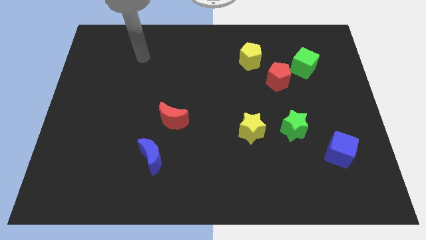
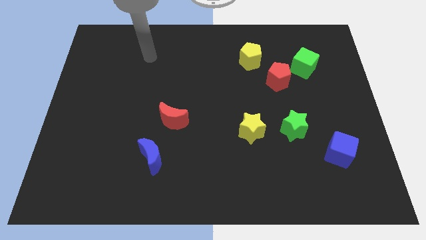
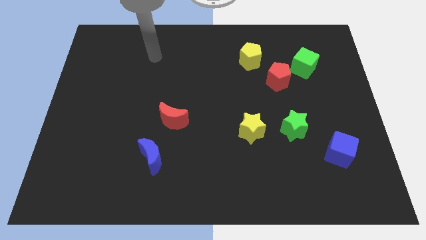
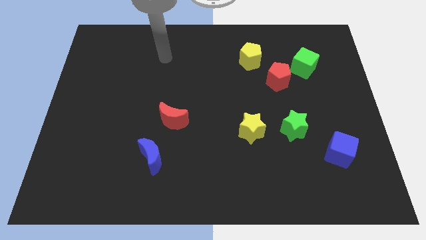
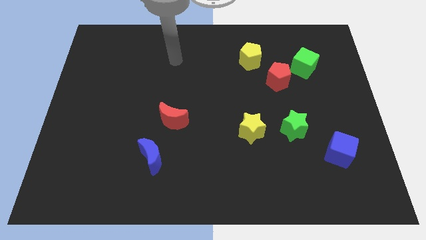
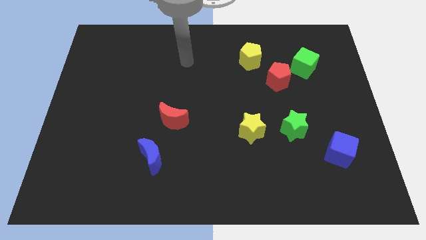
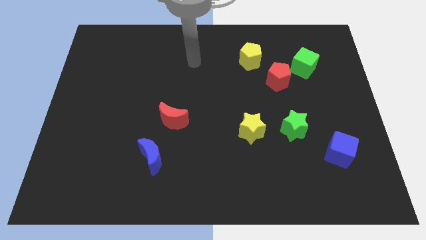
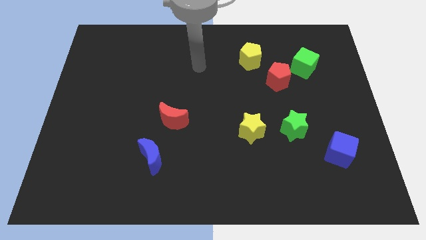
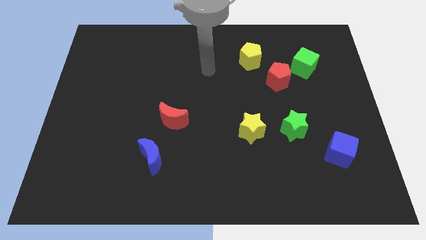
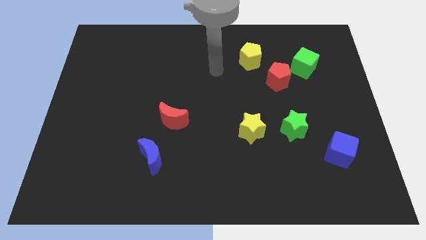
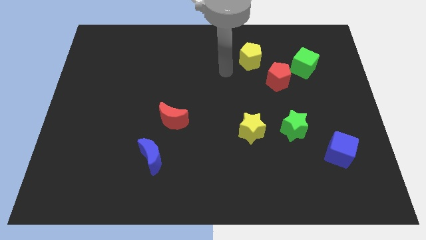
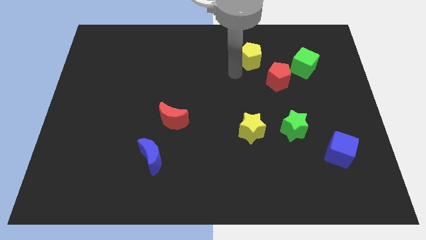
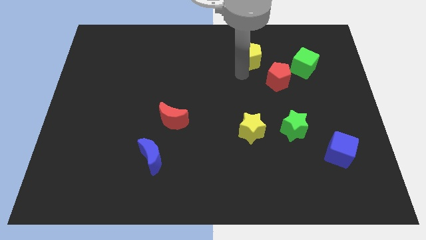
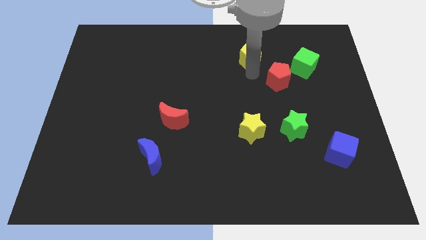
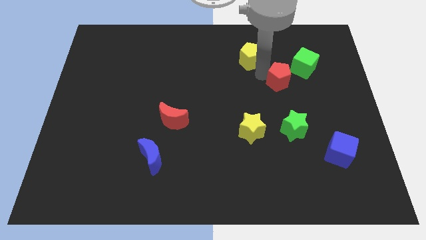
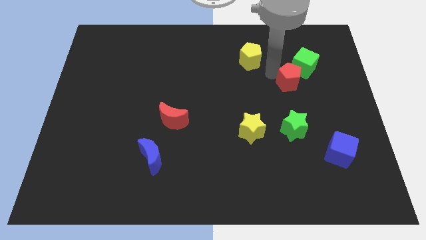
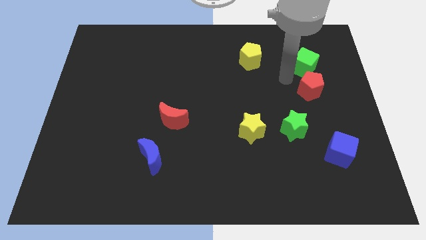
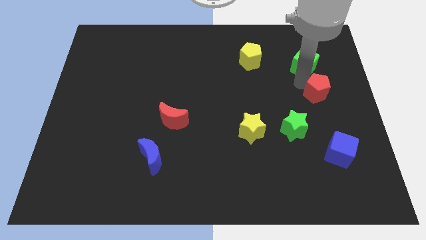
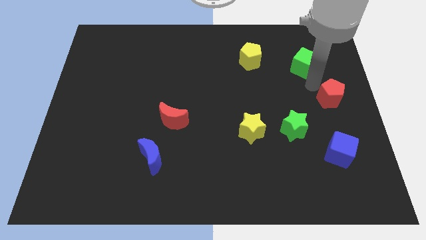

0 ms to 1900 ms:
move the green cube away from the red pentagon

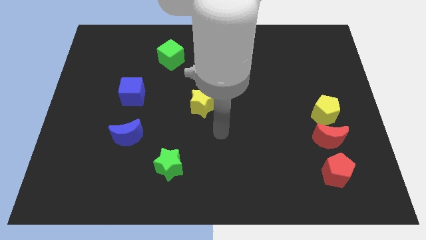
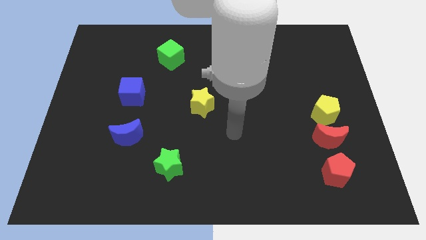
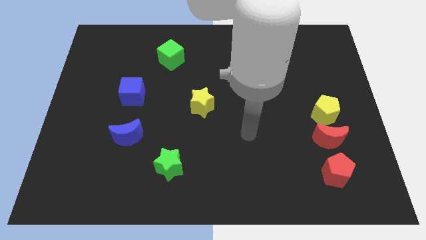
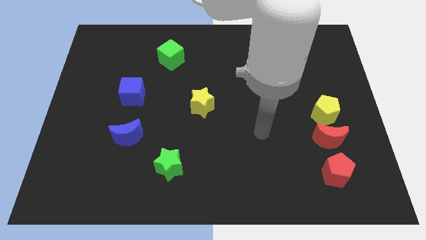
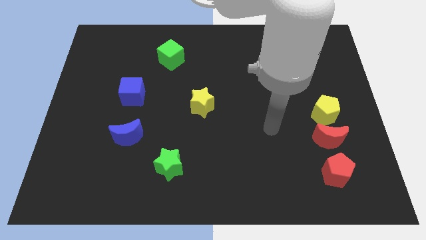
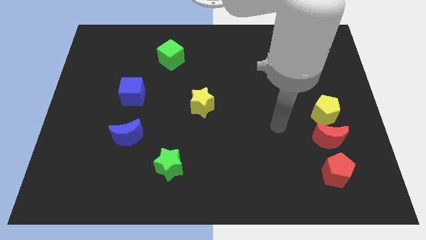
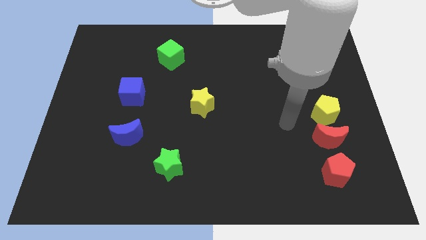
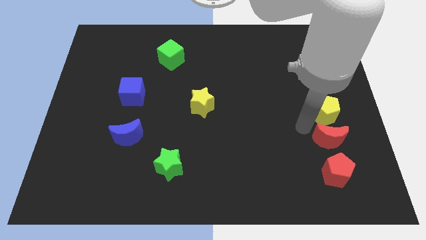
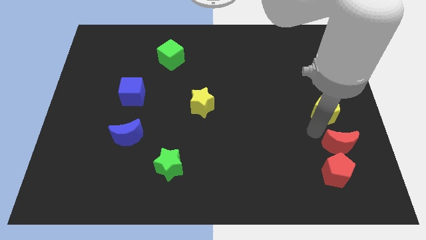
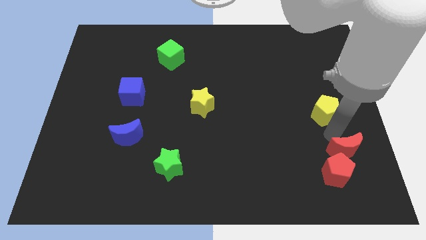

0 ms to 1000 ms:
move the yellow pentagon away from the red moon

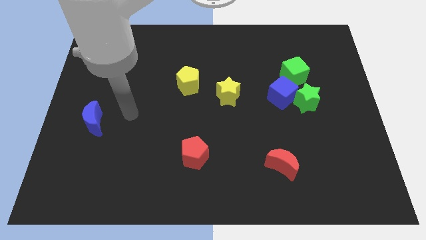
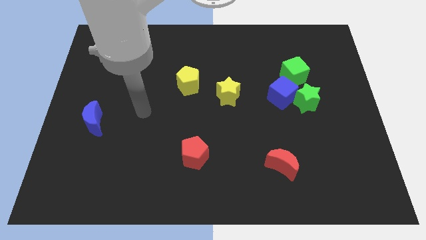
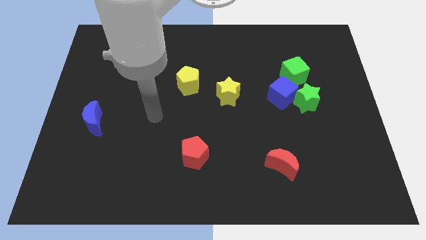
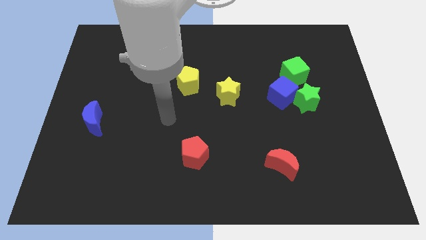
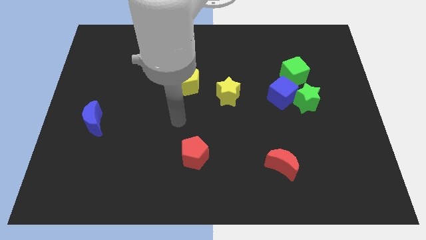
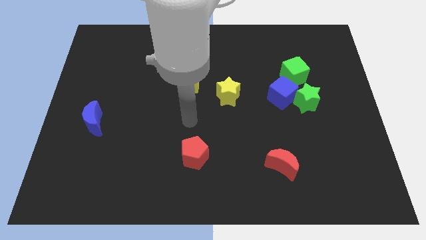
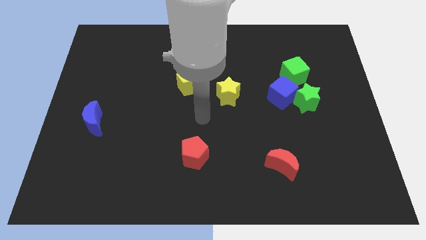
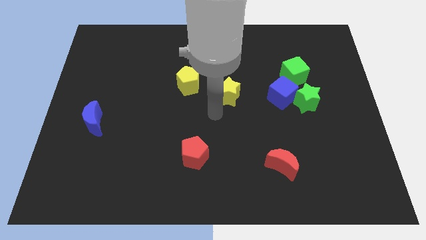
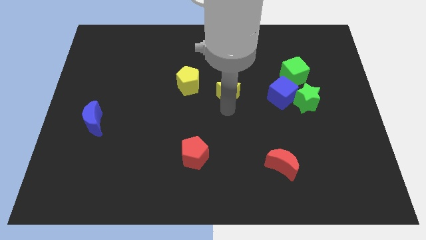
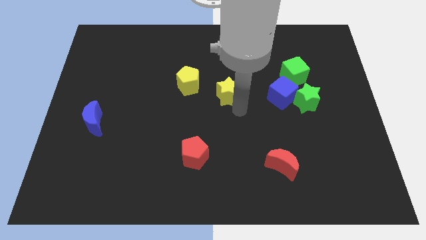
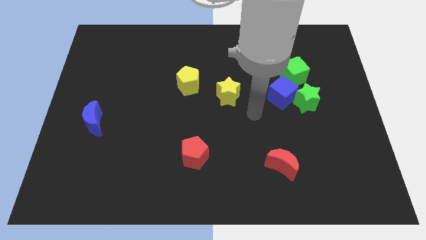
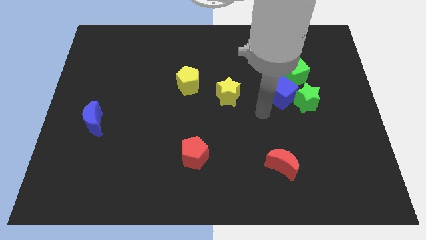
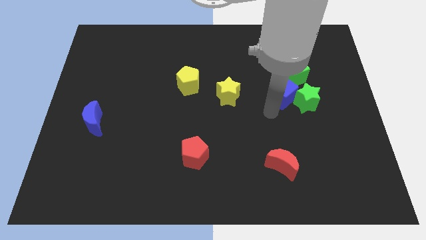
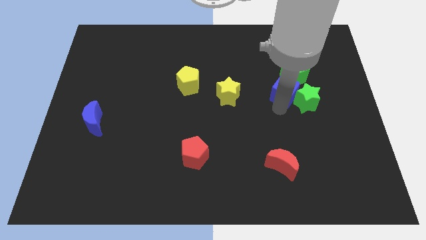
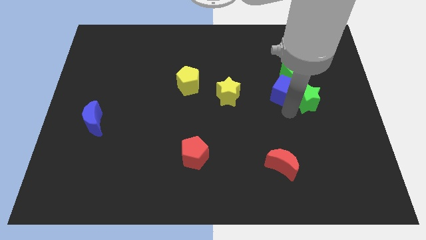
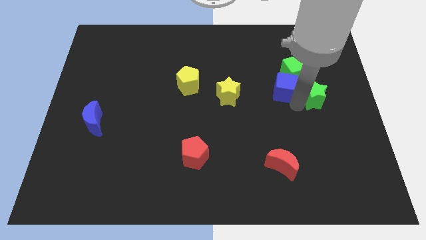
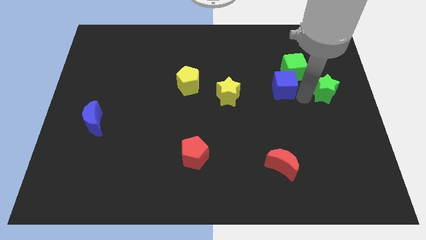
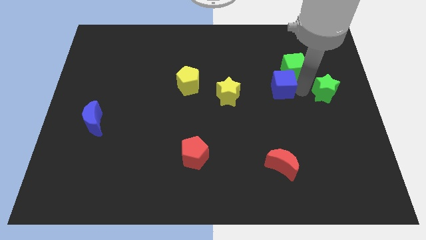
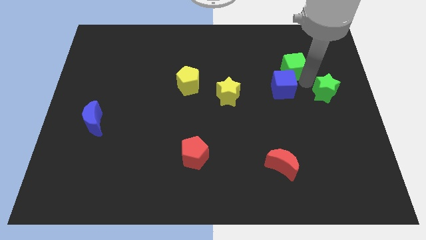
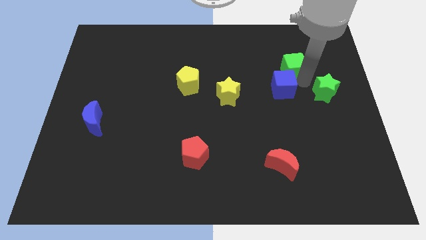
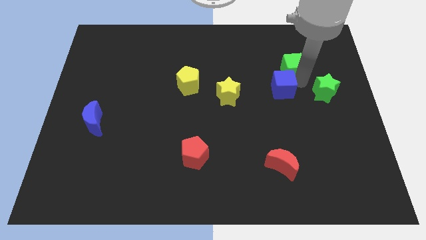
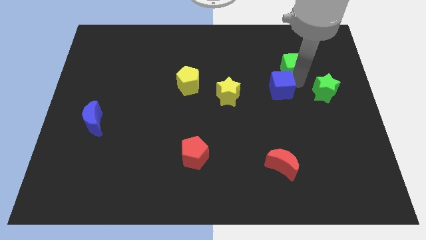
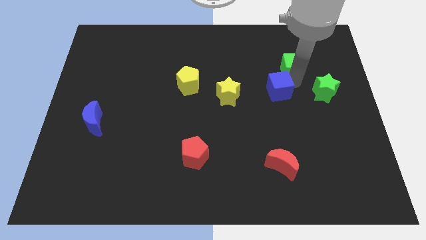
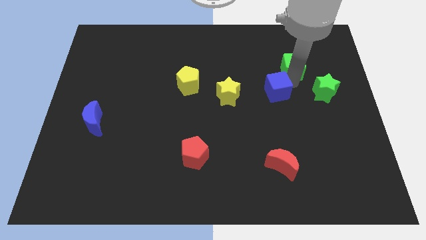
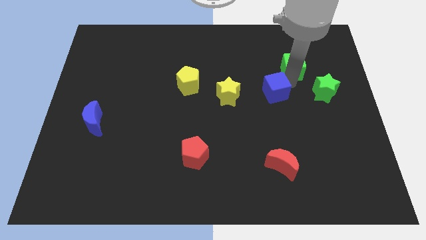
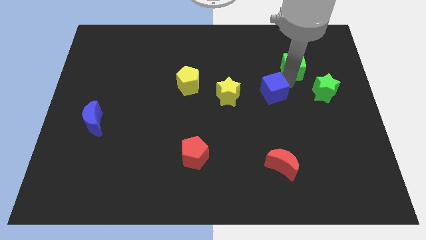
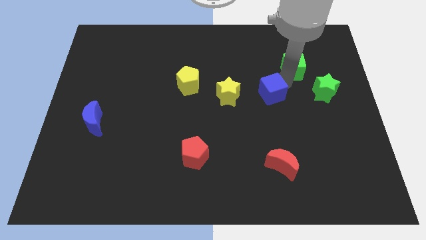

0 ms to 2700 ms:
move the blue cube away from the green star and green cube

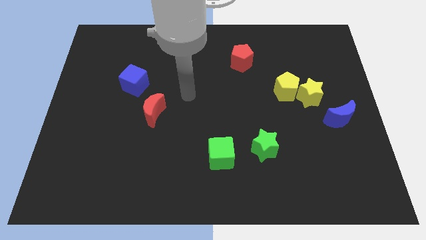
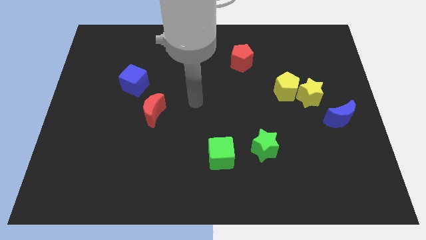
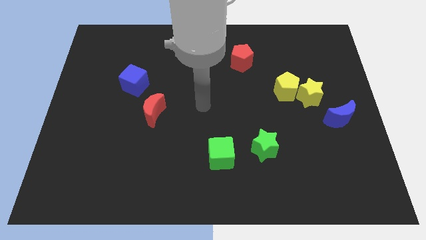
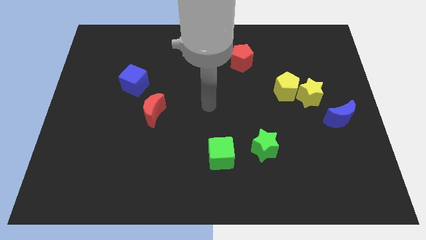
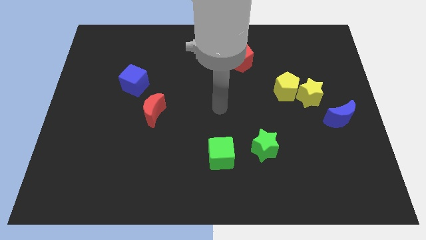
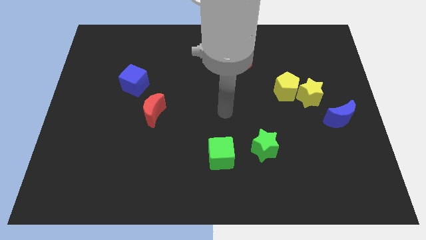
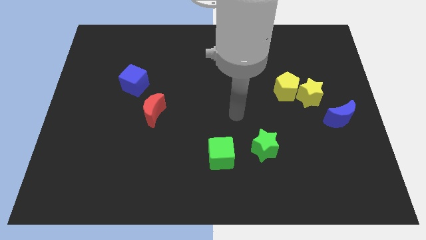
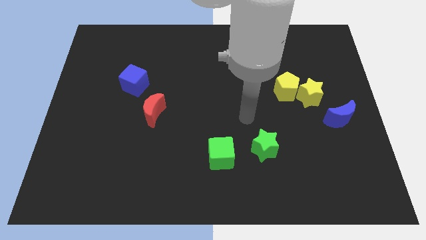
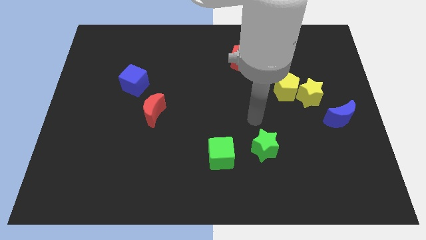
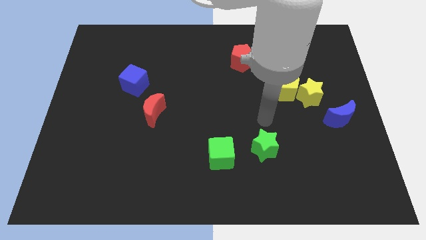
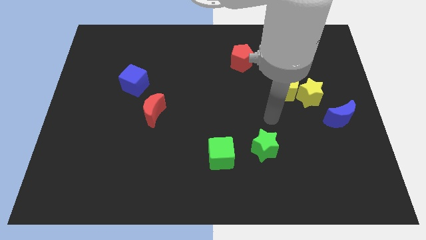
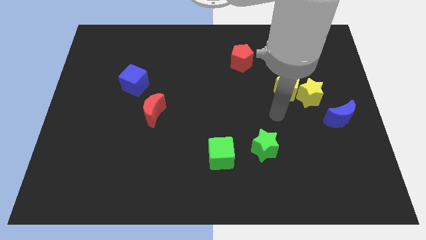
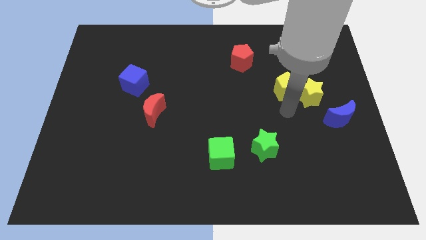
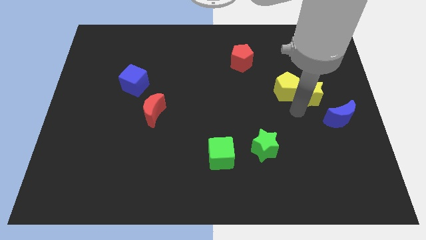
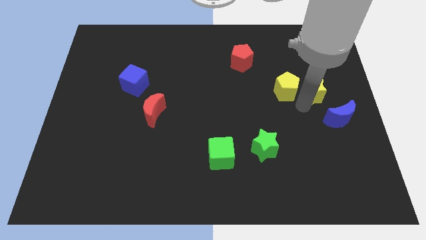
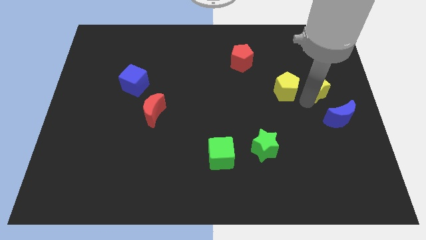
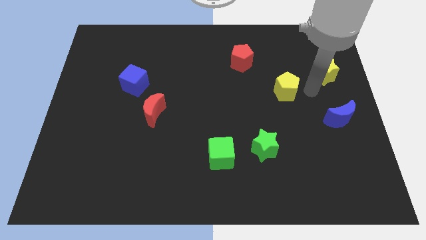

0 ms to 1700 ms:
move the yellow pentagon away from the yellow star

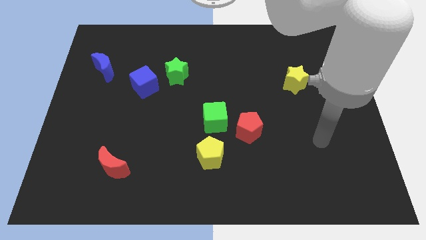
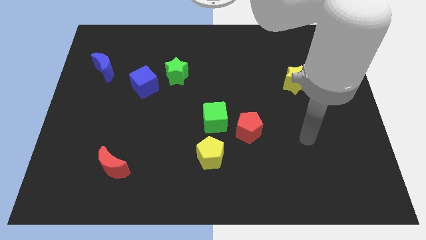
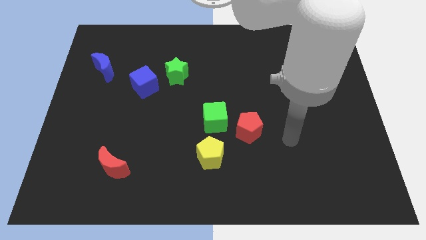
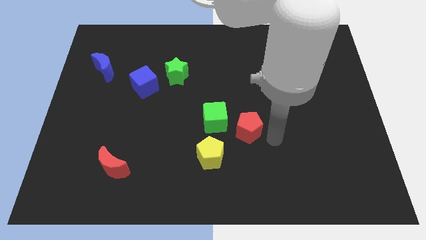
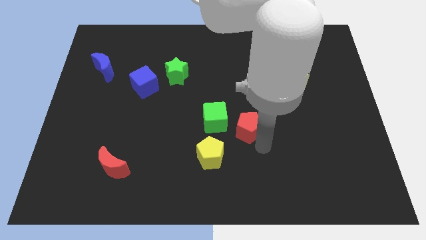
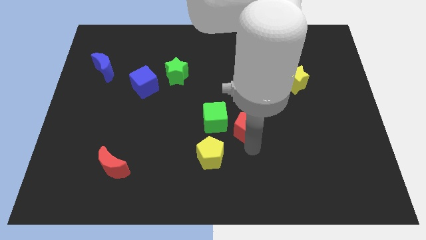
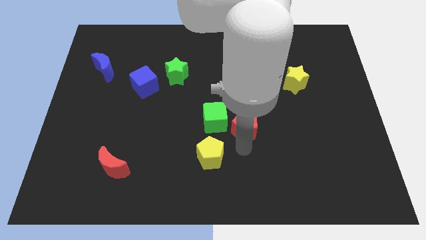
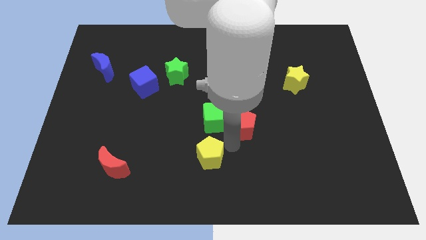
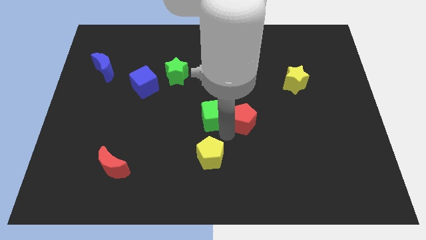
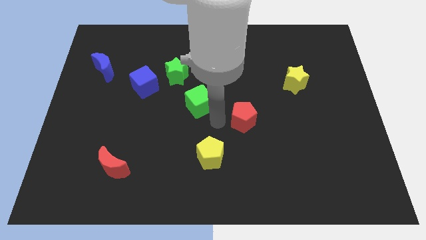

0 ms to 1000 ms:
pull the red pentagon apart from the green cube

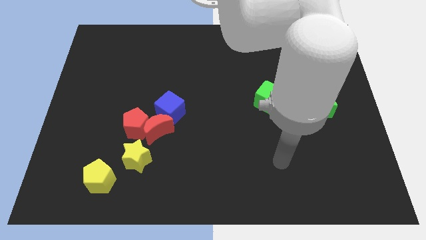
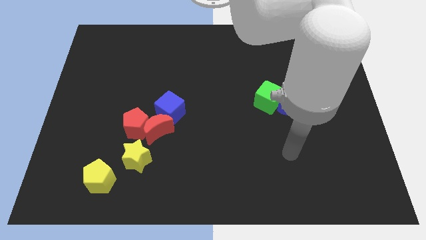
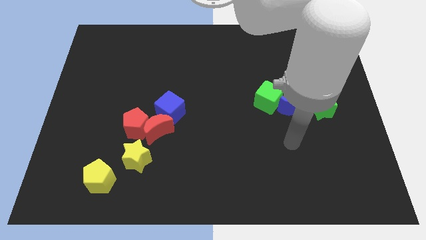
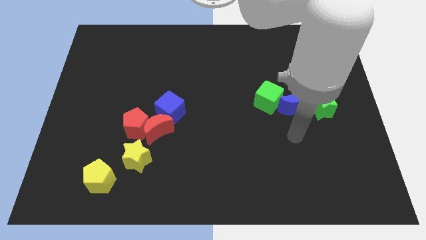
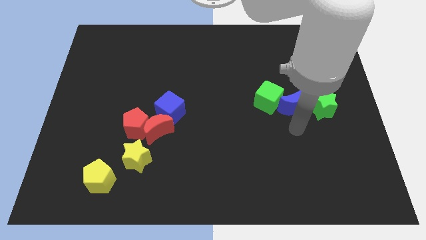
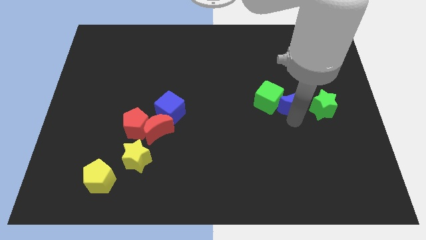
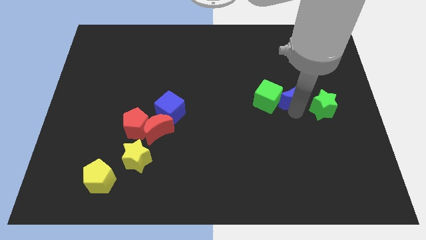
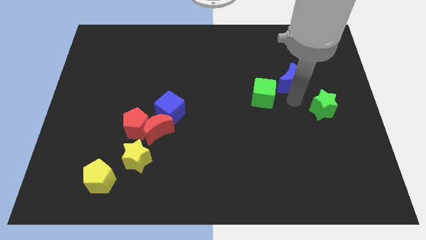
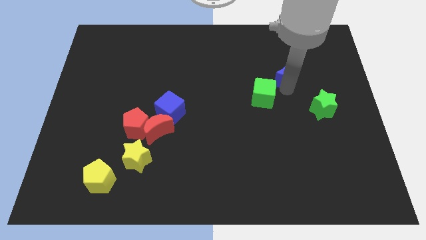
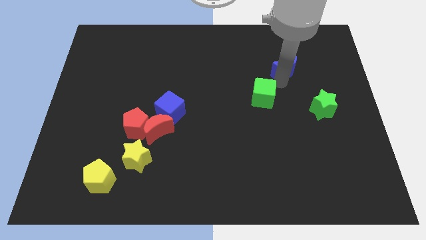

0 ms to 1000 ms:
separate the green cube from the blue moon
